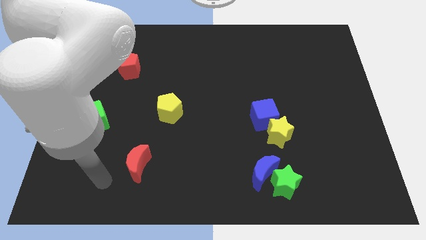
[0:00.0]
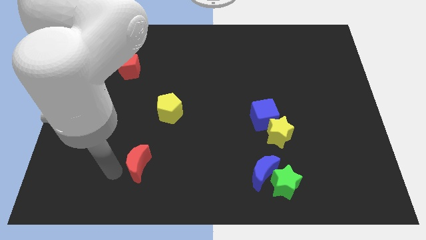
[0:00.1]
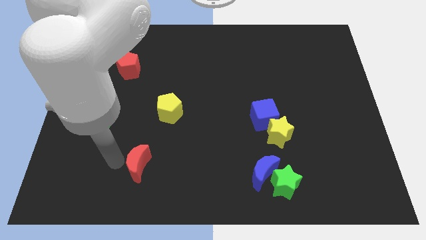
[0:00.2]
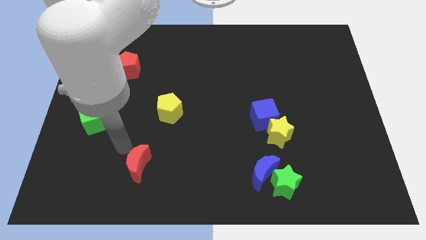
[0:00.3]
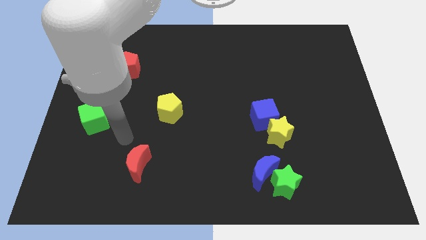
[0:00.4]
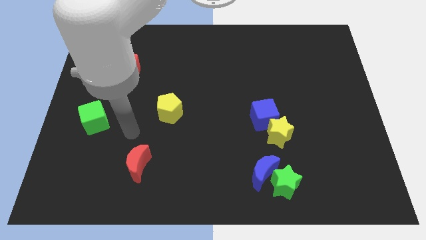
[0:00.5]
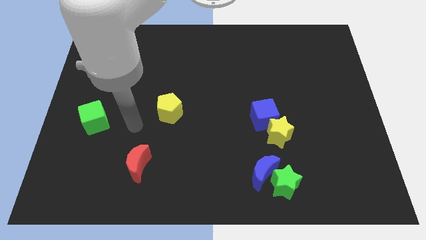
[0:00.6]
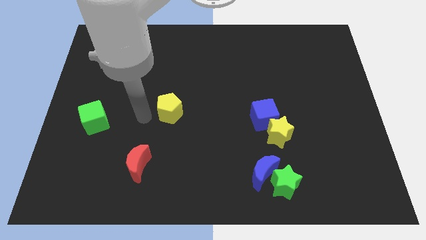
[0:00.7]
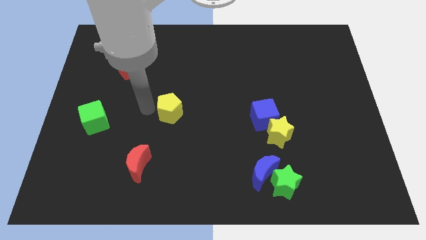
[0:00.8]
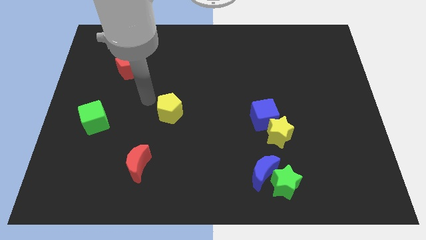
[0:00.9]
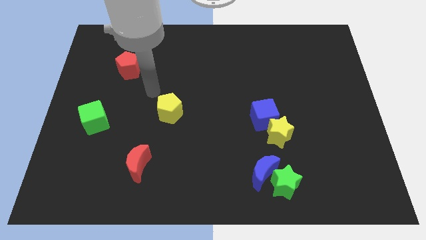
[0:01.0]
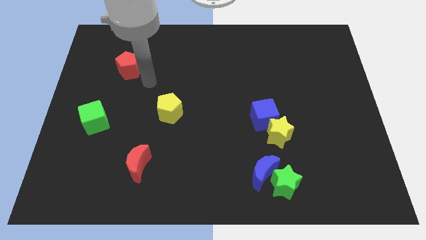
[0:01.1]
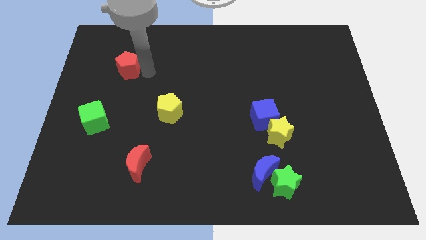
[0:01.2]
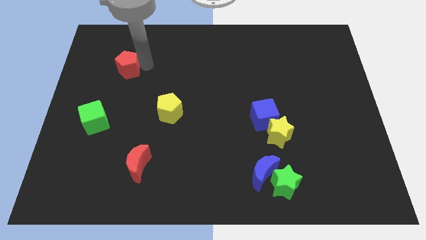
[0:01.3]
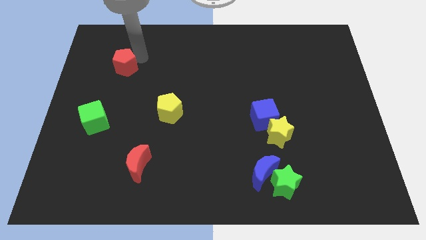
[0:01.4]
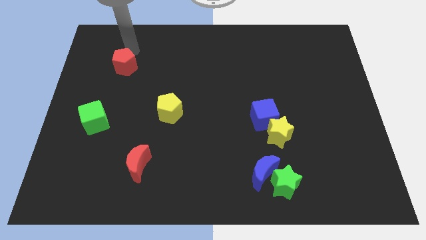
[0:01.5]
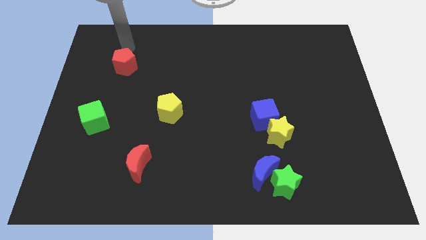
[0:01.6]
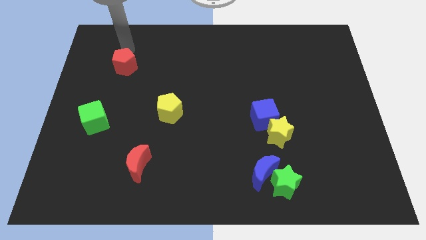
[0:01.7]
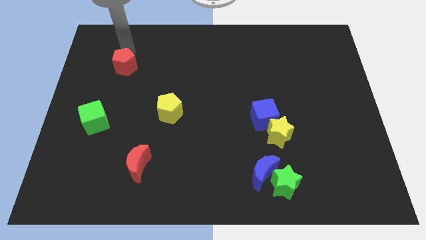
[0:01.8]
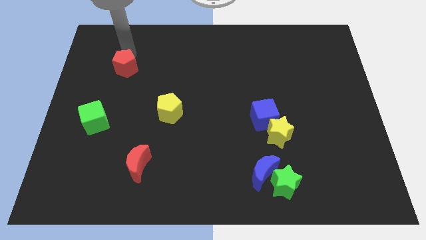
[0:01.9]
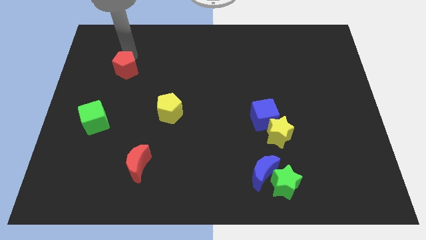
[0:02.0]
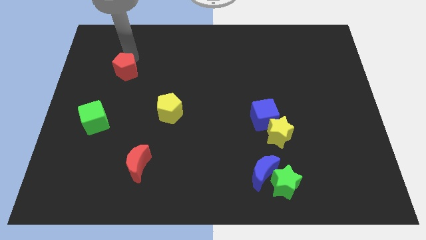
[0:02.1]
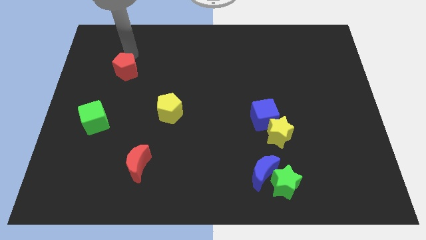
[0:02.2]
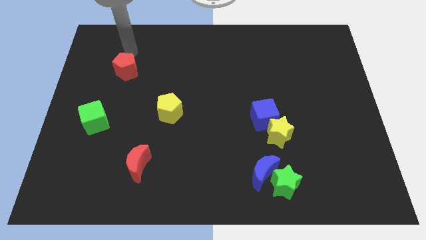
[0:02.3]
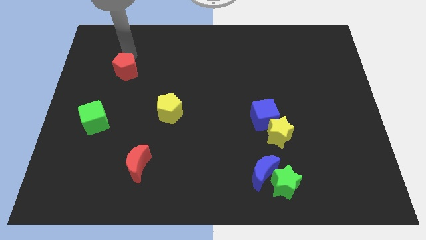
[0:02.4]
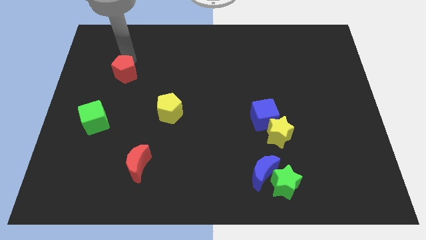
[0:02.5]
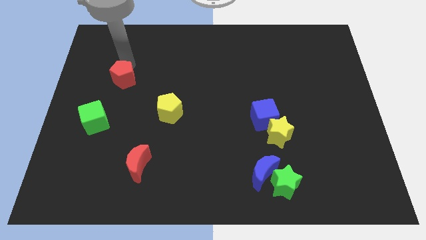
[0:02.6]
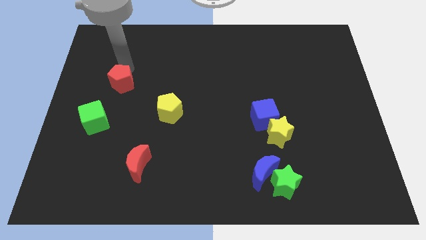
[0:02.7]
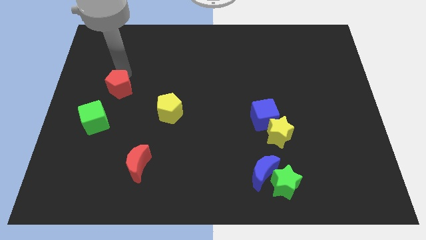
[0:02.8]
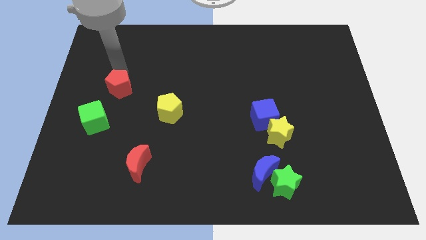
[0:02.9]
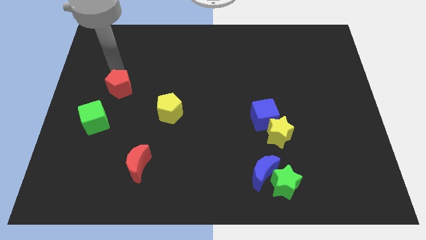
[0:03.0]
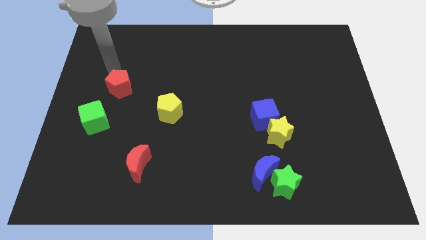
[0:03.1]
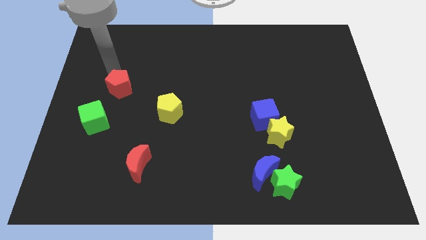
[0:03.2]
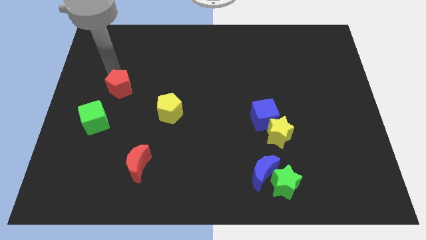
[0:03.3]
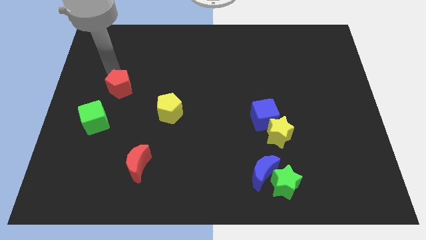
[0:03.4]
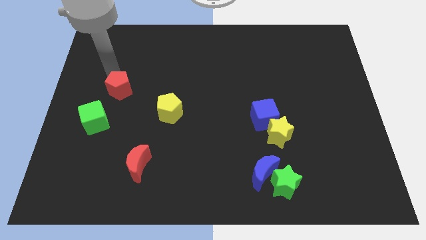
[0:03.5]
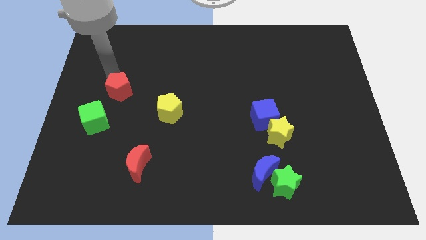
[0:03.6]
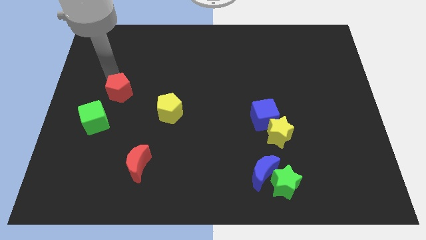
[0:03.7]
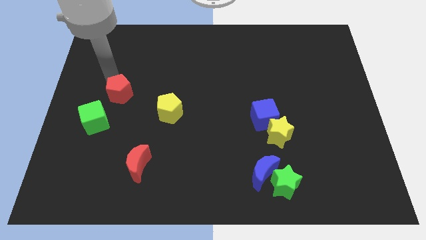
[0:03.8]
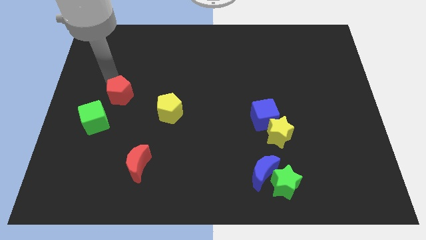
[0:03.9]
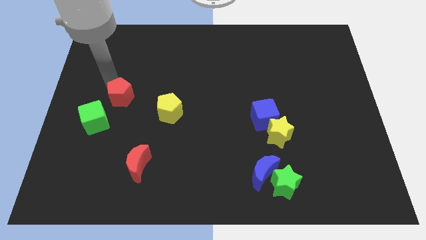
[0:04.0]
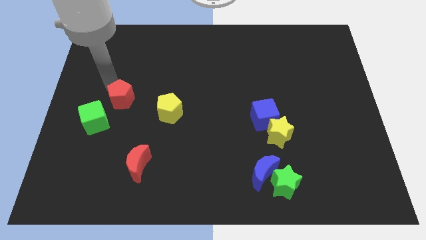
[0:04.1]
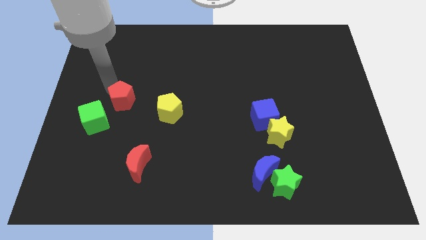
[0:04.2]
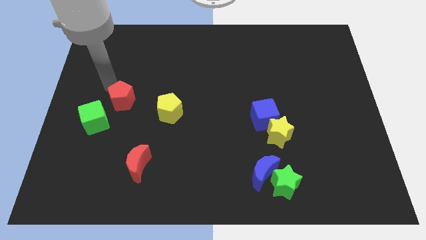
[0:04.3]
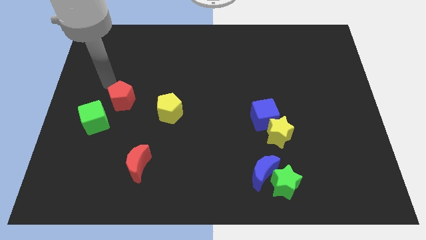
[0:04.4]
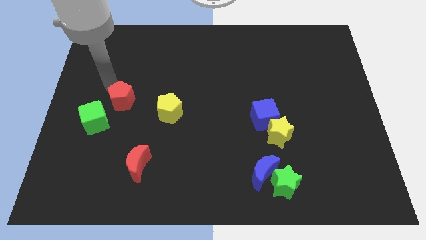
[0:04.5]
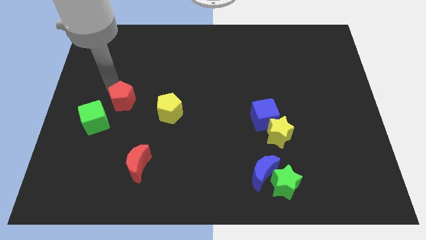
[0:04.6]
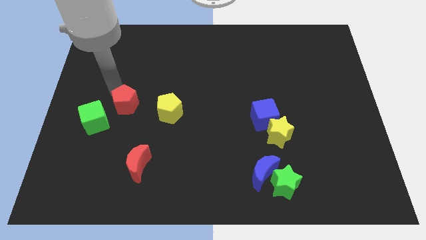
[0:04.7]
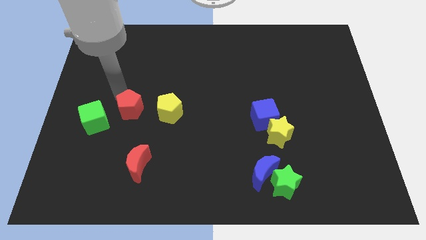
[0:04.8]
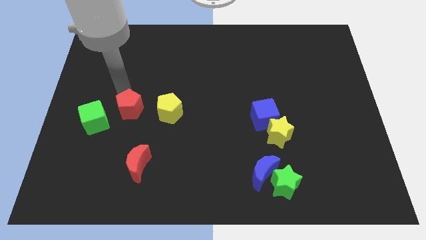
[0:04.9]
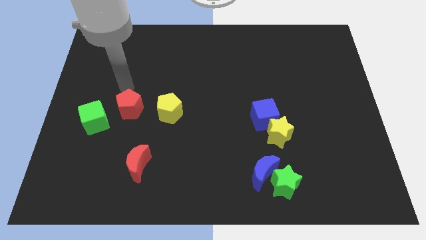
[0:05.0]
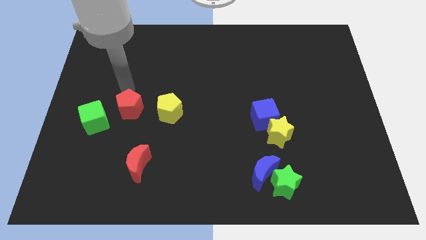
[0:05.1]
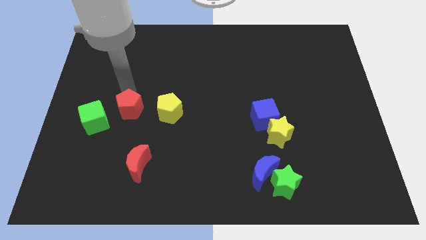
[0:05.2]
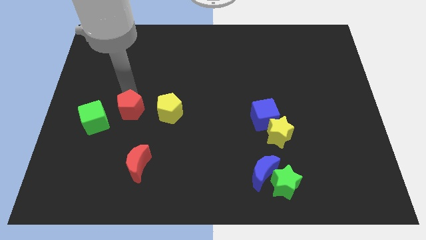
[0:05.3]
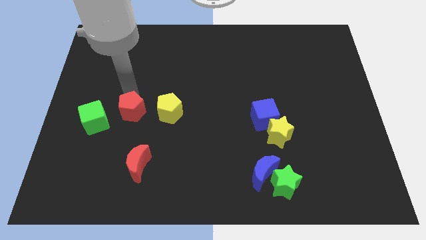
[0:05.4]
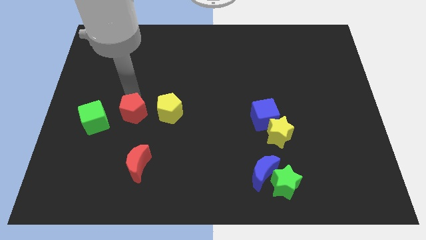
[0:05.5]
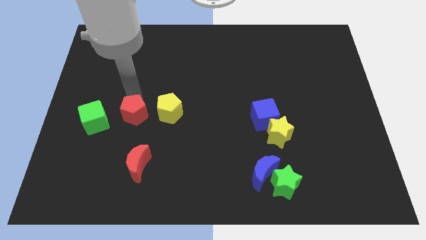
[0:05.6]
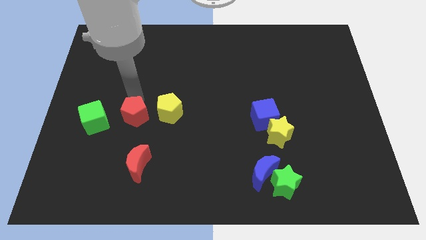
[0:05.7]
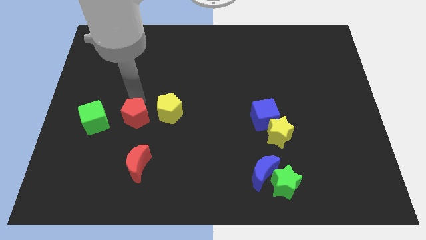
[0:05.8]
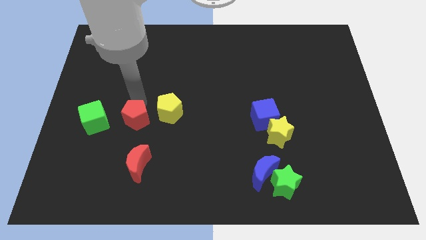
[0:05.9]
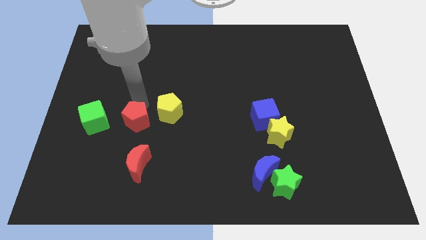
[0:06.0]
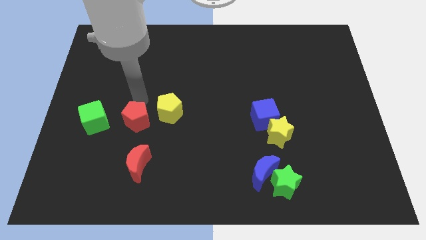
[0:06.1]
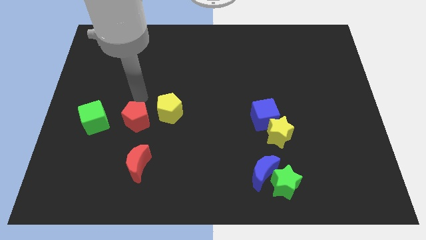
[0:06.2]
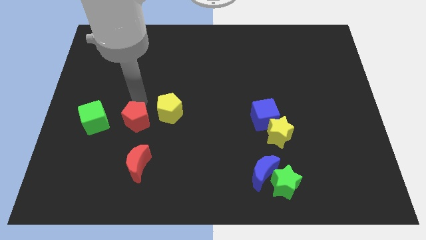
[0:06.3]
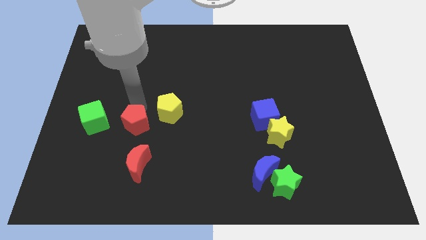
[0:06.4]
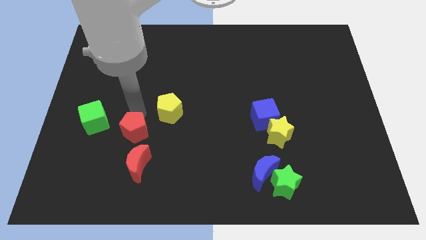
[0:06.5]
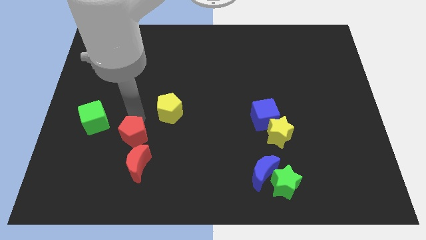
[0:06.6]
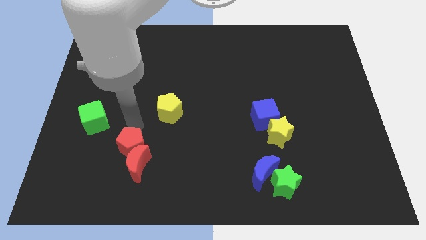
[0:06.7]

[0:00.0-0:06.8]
put the red pentagon next to the red moon

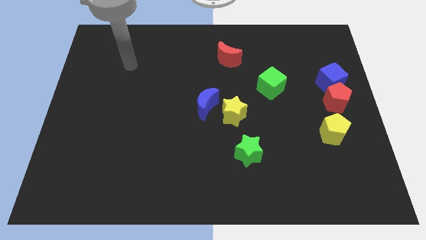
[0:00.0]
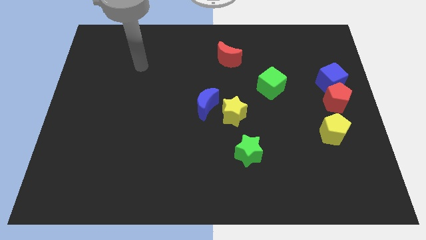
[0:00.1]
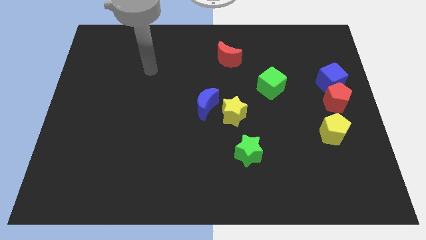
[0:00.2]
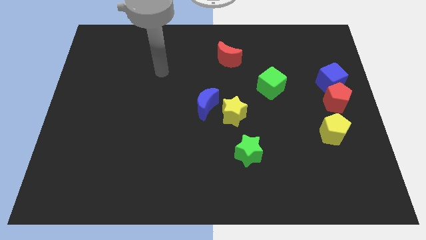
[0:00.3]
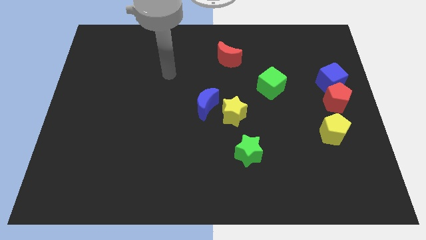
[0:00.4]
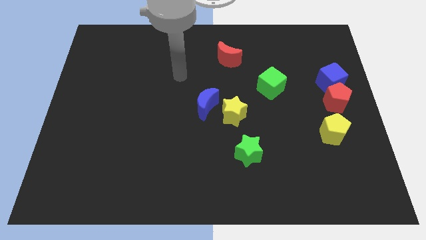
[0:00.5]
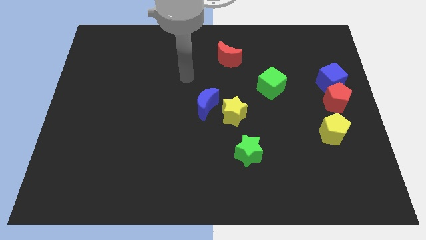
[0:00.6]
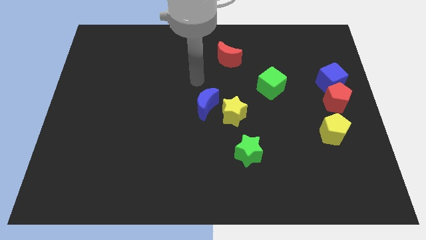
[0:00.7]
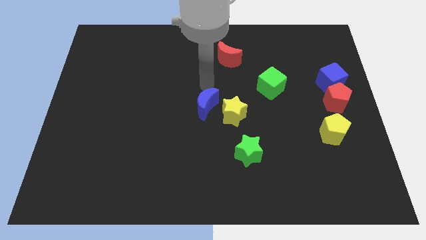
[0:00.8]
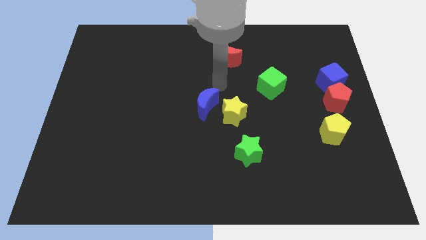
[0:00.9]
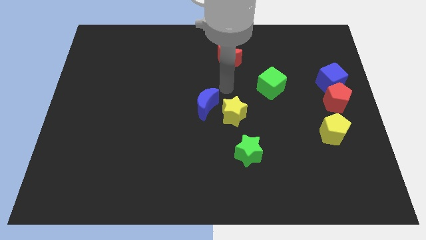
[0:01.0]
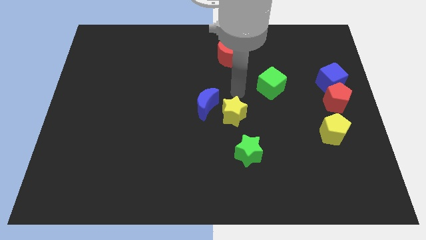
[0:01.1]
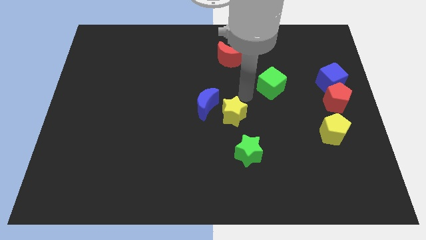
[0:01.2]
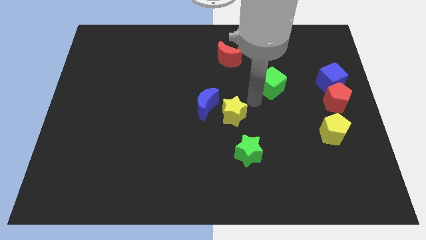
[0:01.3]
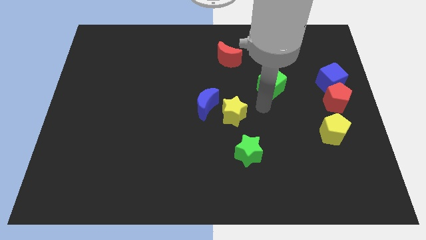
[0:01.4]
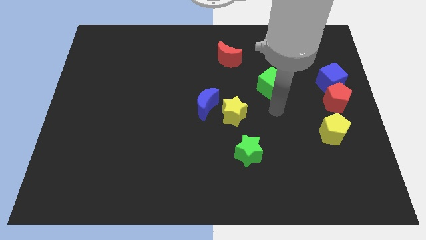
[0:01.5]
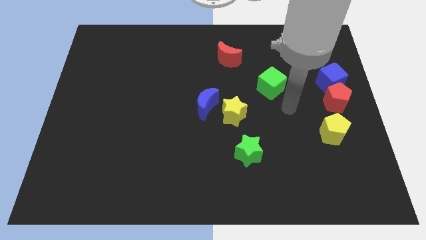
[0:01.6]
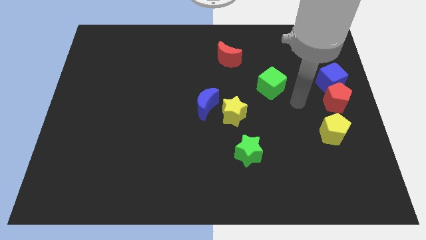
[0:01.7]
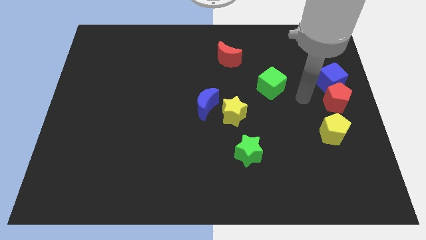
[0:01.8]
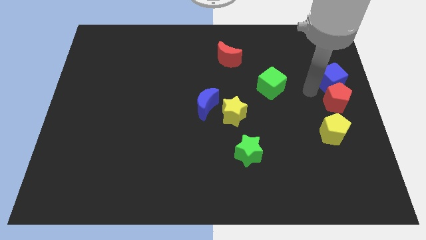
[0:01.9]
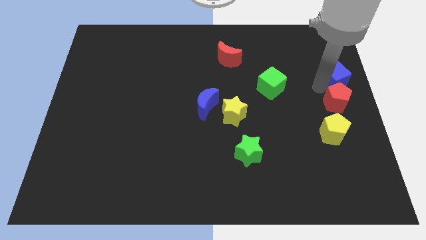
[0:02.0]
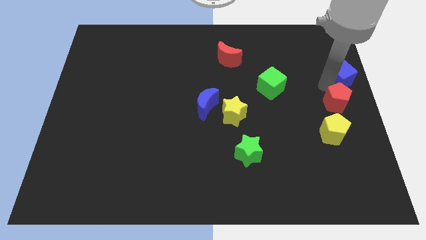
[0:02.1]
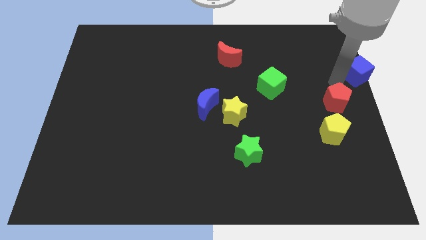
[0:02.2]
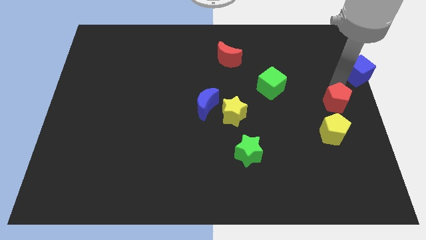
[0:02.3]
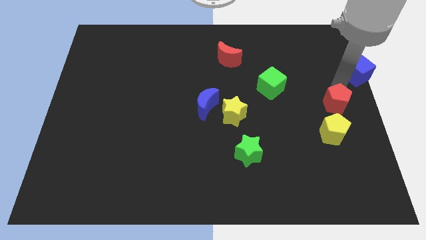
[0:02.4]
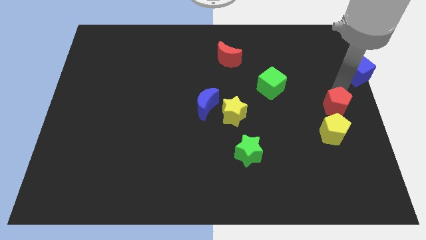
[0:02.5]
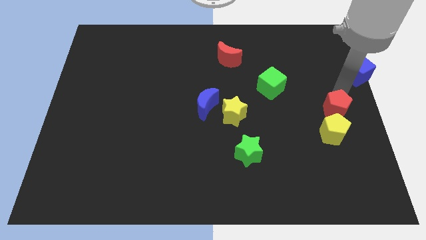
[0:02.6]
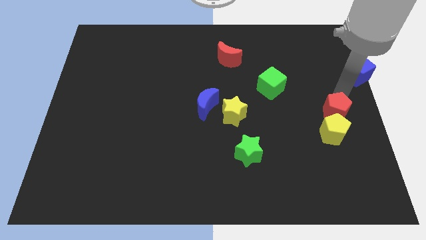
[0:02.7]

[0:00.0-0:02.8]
put the red pentagon to the yellow pentagon
